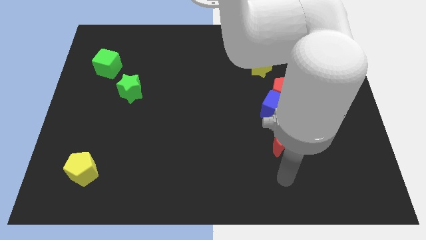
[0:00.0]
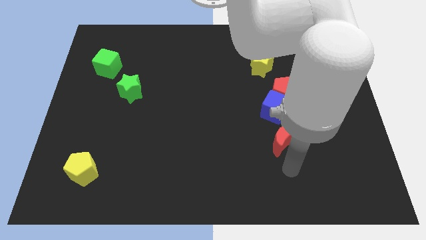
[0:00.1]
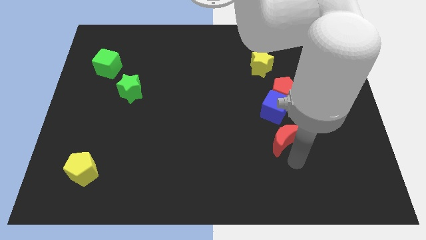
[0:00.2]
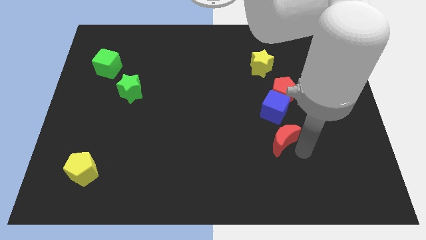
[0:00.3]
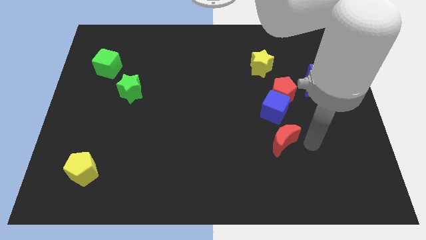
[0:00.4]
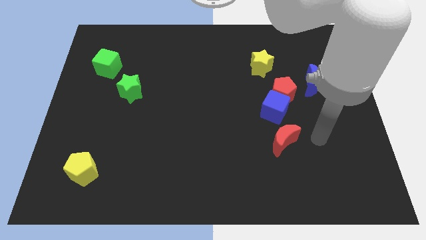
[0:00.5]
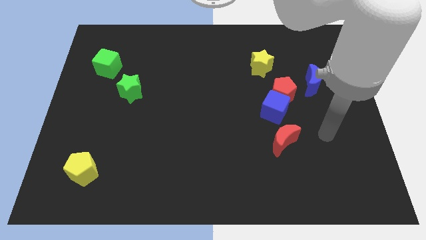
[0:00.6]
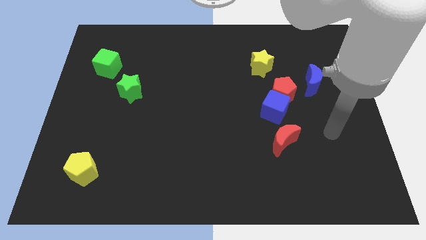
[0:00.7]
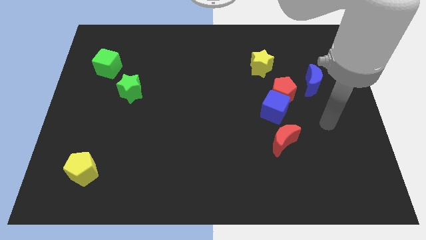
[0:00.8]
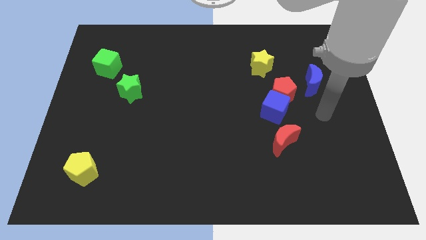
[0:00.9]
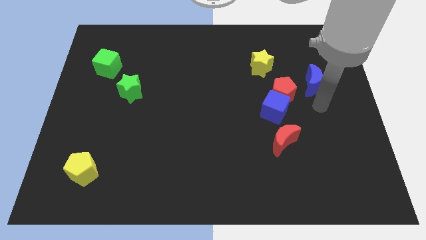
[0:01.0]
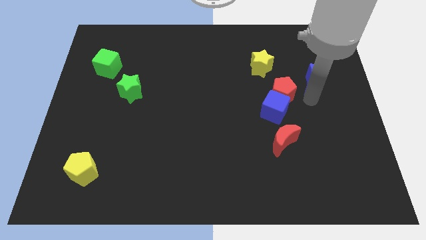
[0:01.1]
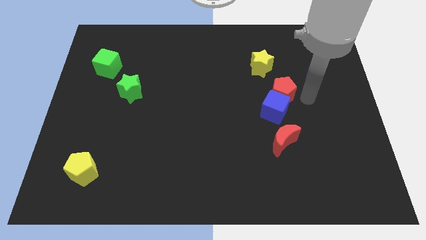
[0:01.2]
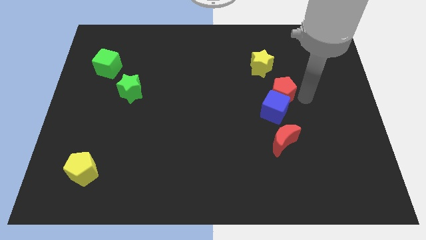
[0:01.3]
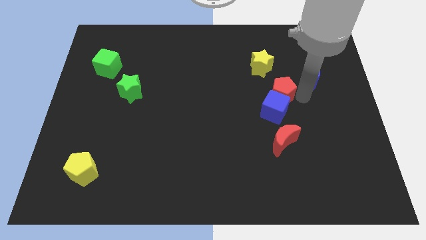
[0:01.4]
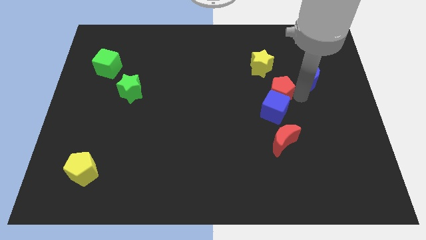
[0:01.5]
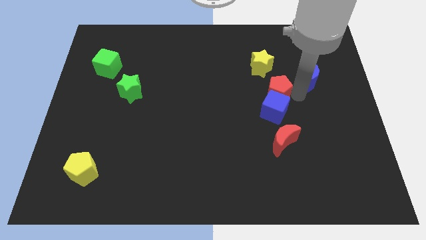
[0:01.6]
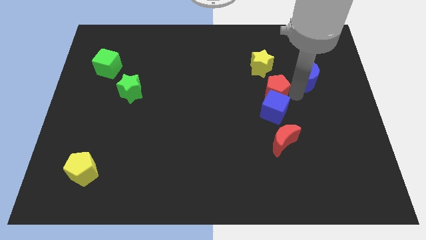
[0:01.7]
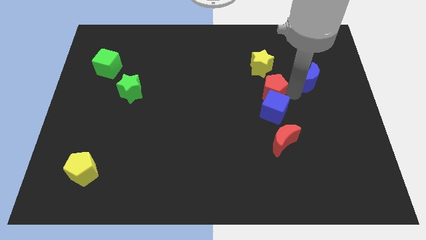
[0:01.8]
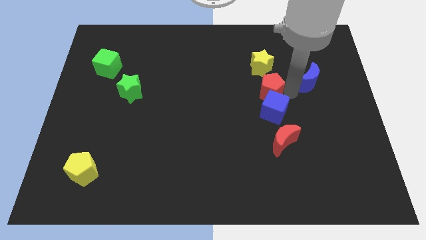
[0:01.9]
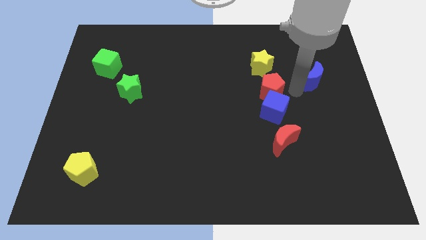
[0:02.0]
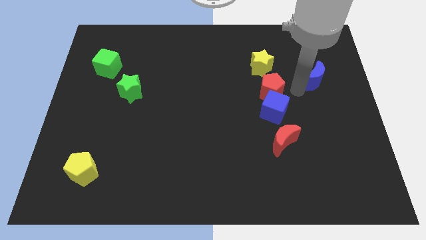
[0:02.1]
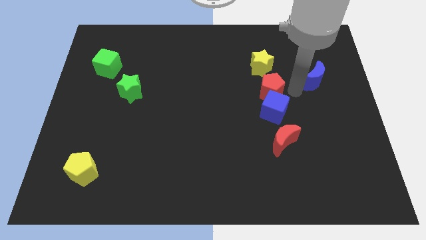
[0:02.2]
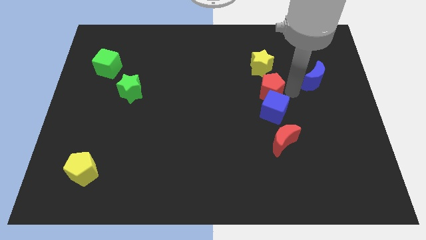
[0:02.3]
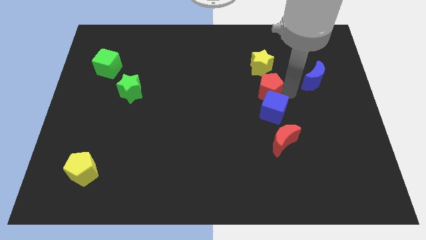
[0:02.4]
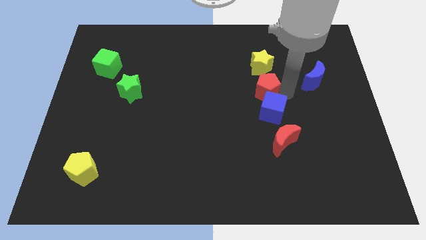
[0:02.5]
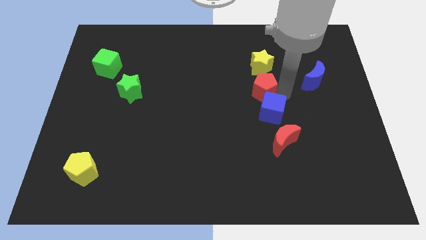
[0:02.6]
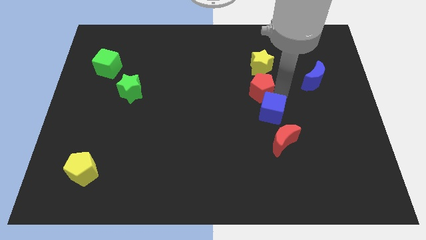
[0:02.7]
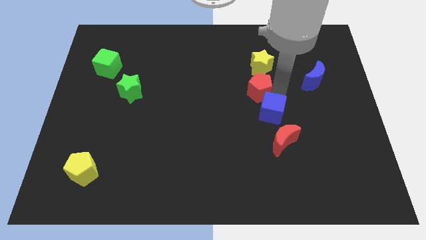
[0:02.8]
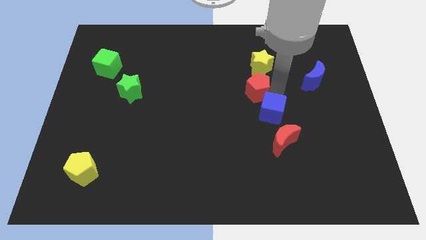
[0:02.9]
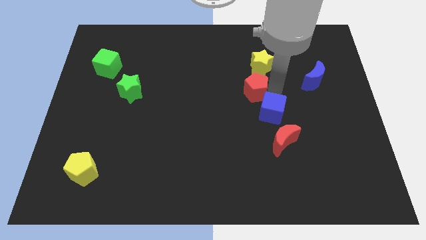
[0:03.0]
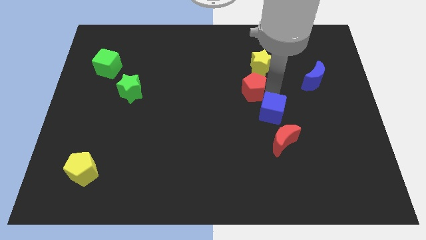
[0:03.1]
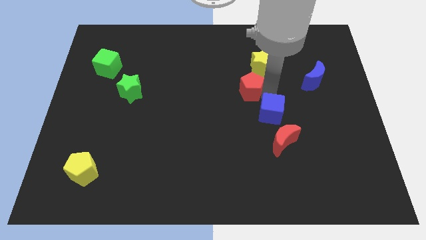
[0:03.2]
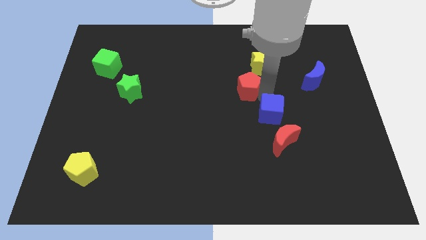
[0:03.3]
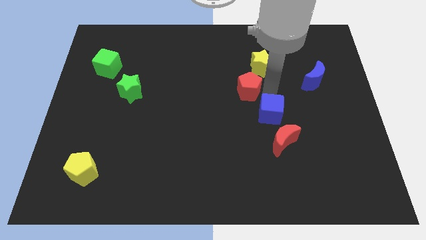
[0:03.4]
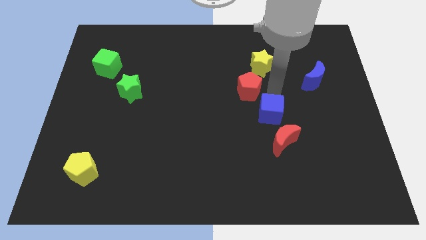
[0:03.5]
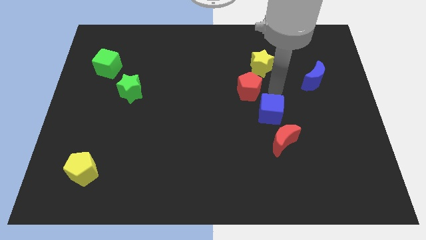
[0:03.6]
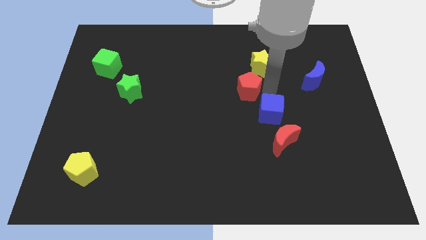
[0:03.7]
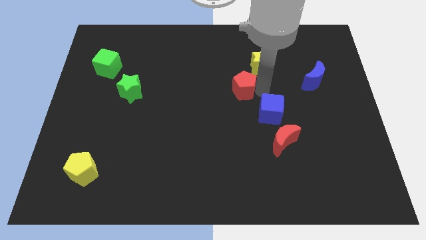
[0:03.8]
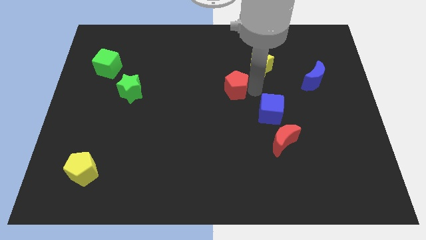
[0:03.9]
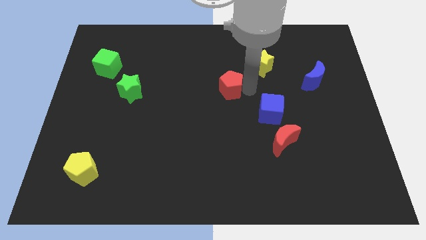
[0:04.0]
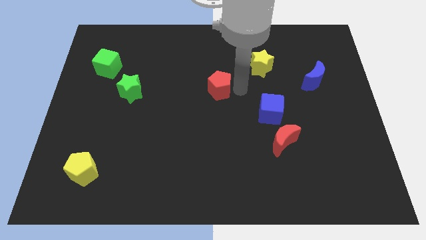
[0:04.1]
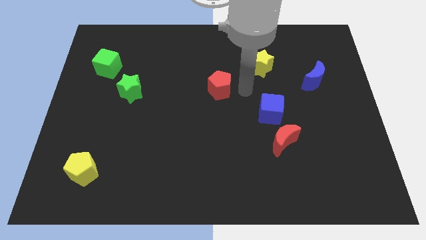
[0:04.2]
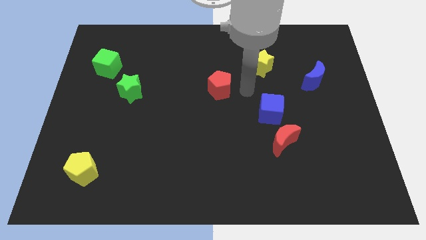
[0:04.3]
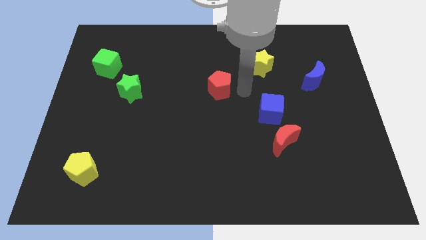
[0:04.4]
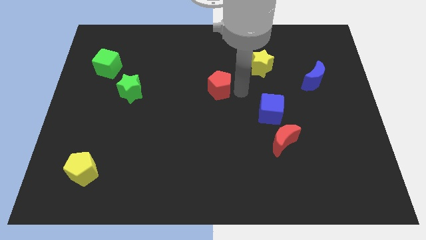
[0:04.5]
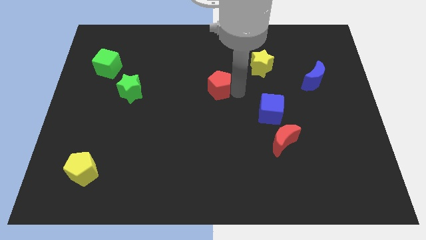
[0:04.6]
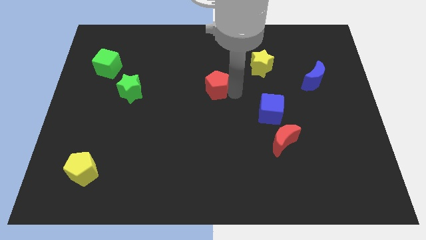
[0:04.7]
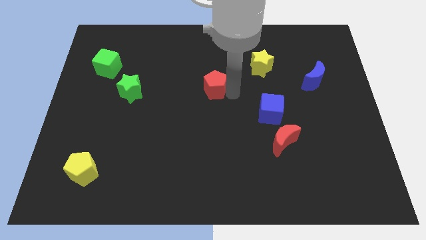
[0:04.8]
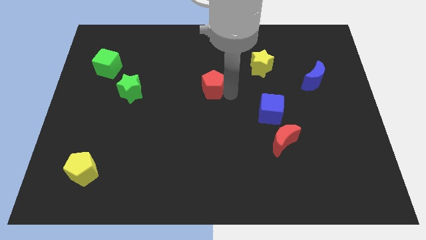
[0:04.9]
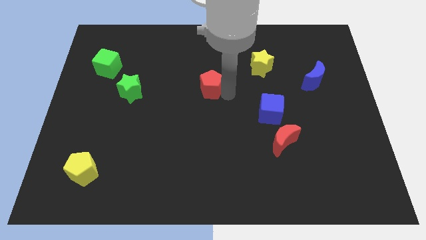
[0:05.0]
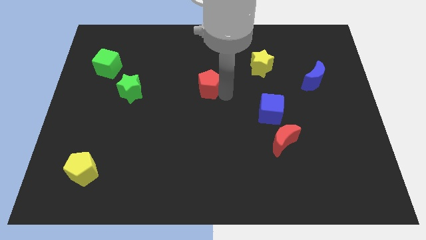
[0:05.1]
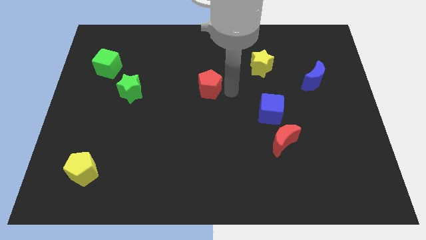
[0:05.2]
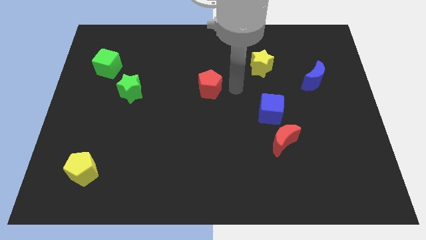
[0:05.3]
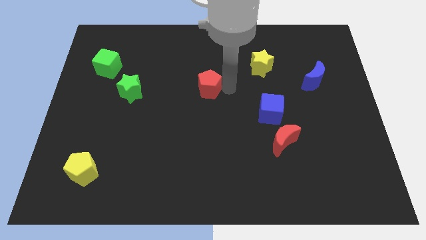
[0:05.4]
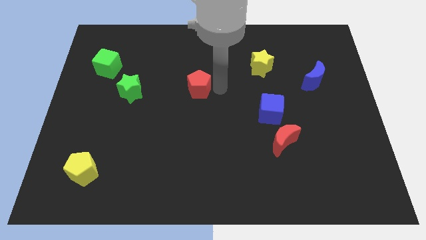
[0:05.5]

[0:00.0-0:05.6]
slide the red pentagon left

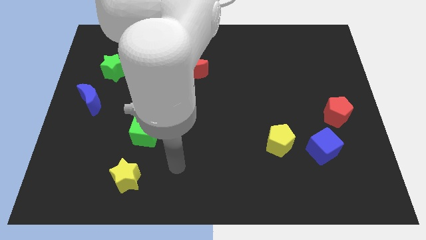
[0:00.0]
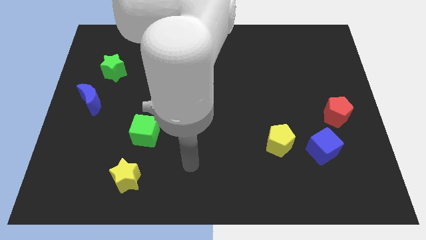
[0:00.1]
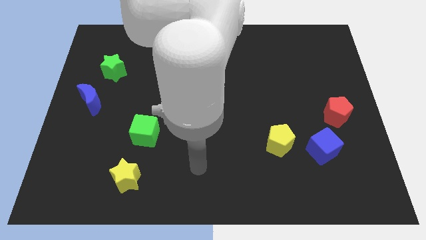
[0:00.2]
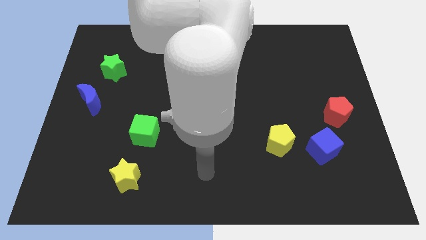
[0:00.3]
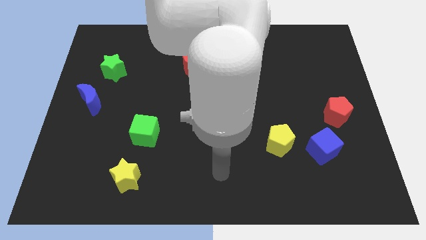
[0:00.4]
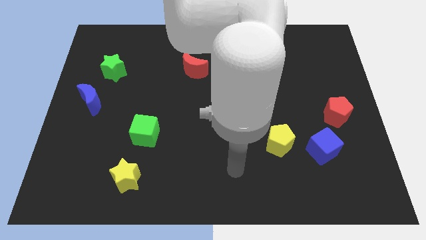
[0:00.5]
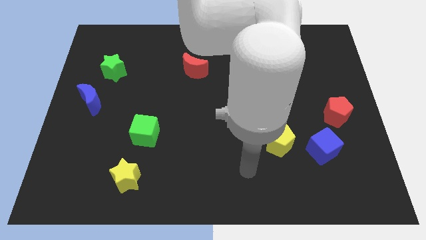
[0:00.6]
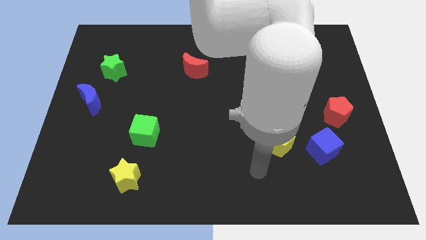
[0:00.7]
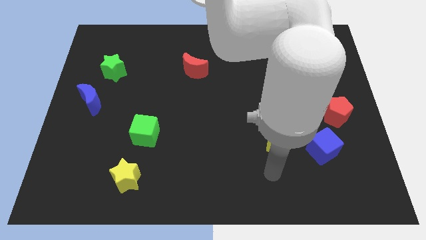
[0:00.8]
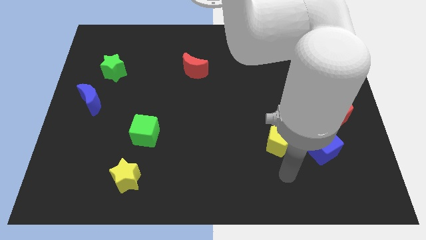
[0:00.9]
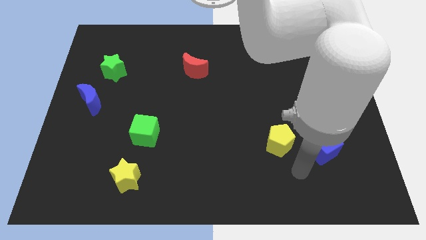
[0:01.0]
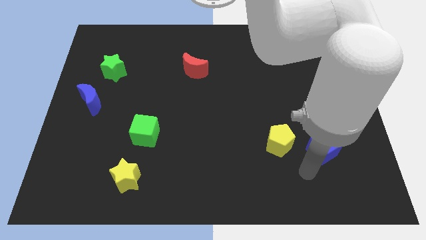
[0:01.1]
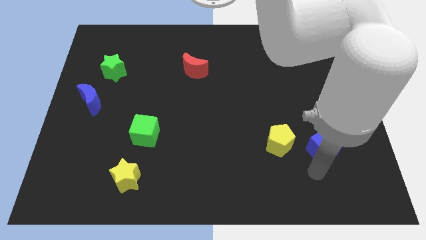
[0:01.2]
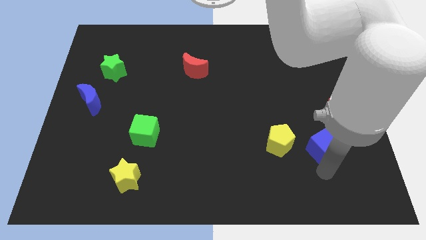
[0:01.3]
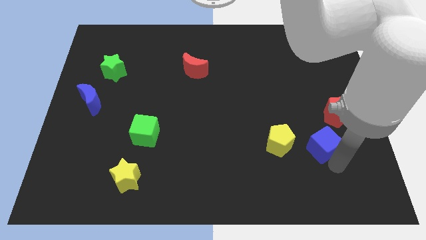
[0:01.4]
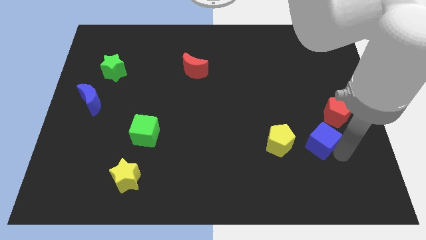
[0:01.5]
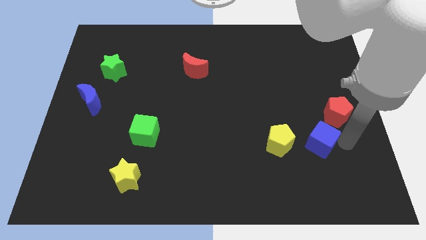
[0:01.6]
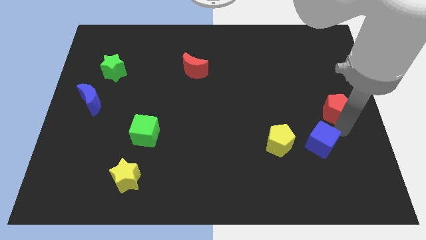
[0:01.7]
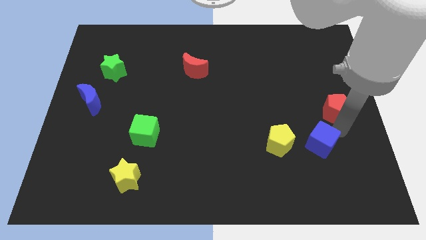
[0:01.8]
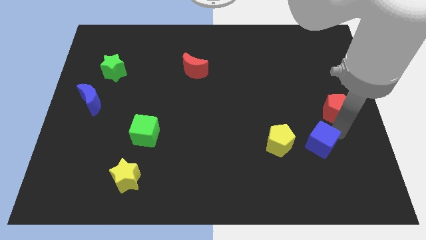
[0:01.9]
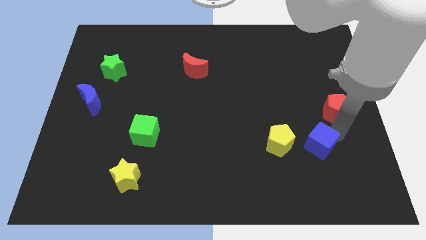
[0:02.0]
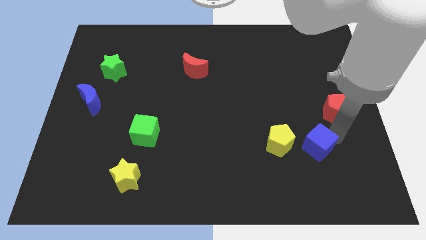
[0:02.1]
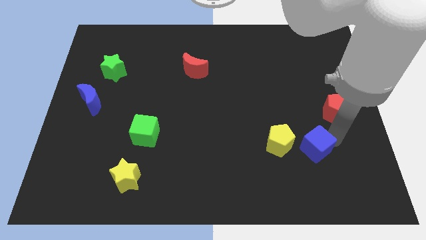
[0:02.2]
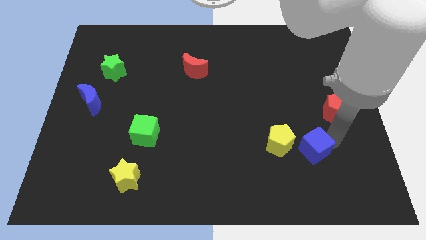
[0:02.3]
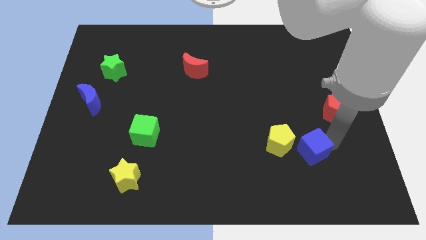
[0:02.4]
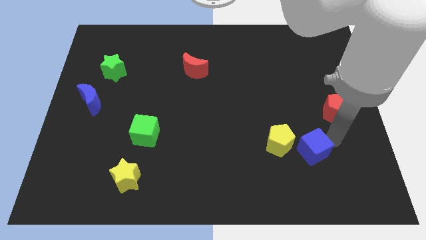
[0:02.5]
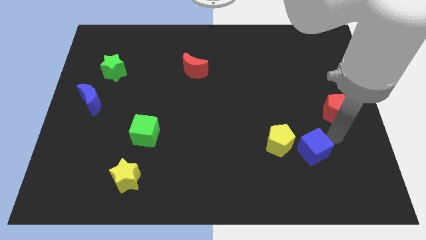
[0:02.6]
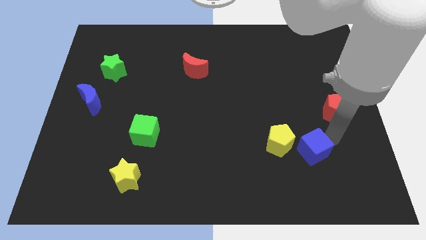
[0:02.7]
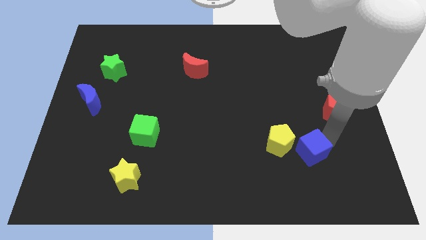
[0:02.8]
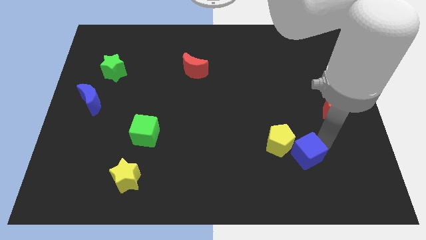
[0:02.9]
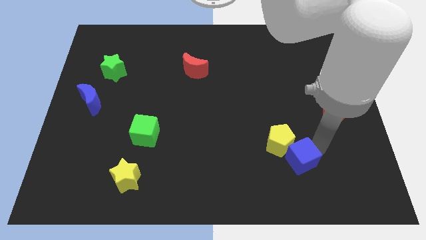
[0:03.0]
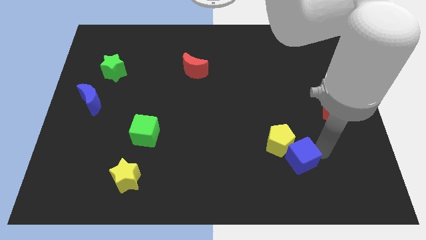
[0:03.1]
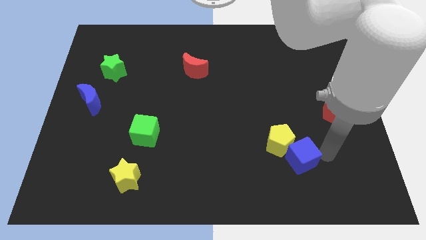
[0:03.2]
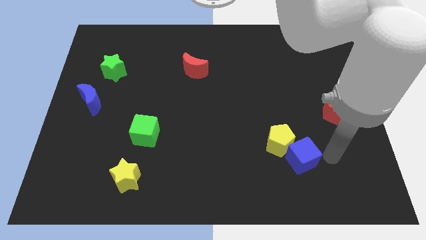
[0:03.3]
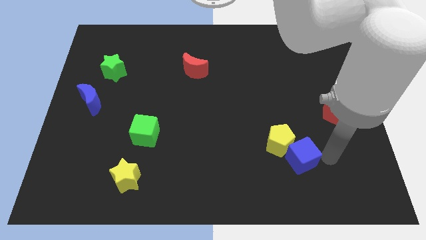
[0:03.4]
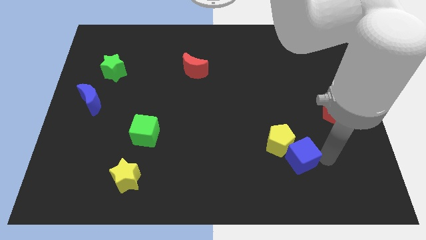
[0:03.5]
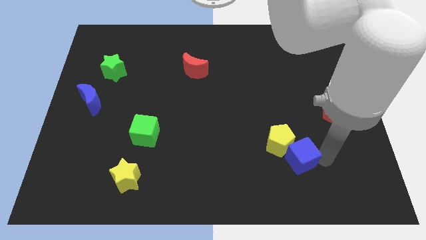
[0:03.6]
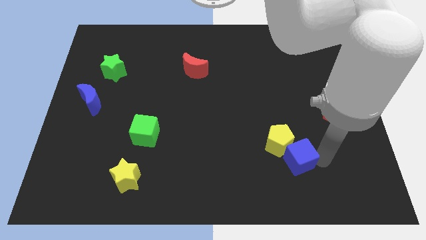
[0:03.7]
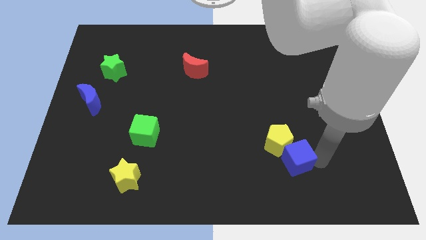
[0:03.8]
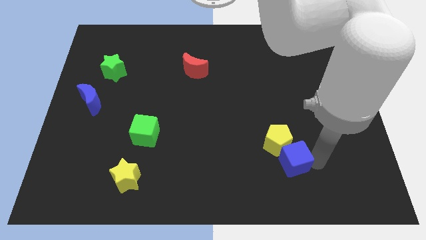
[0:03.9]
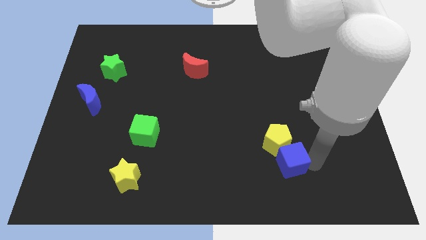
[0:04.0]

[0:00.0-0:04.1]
slightly move the blue cube left
